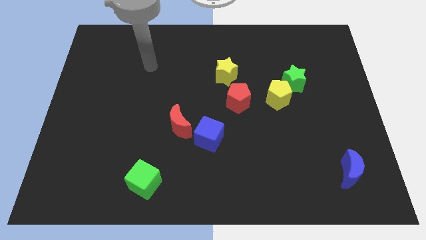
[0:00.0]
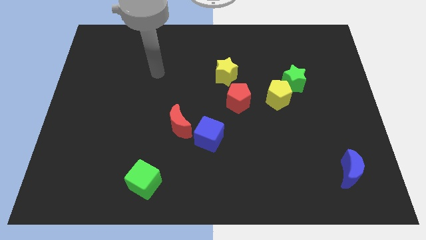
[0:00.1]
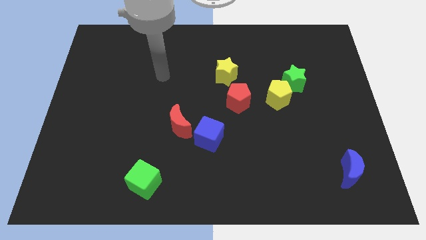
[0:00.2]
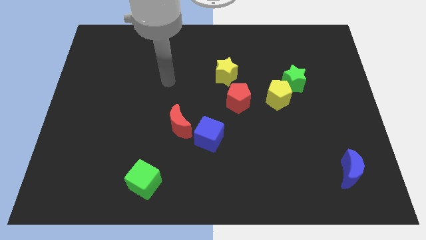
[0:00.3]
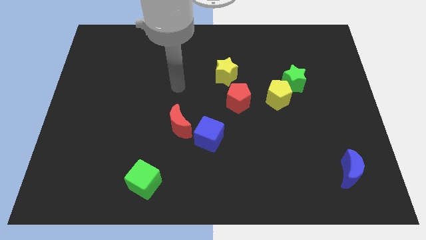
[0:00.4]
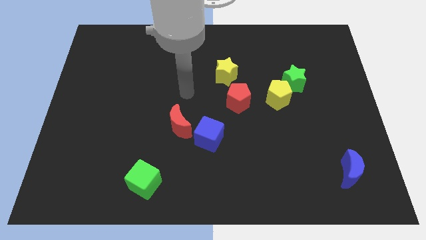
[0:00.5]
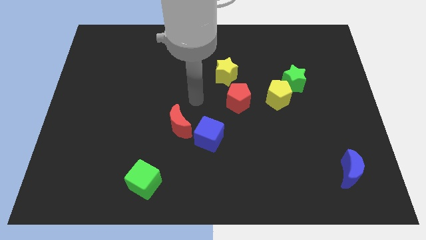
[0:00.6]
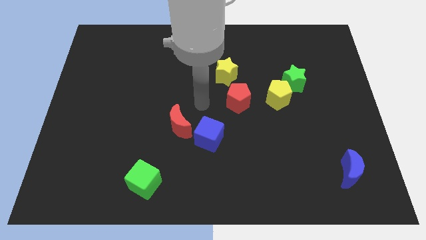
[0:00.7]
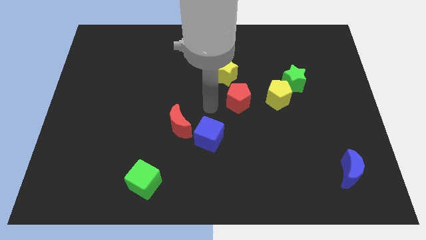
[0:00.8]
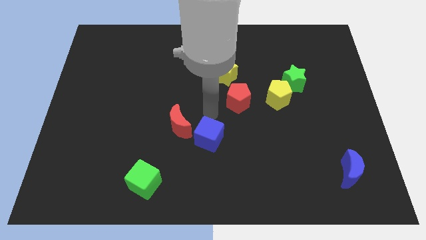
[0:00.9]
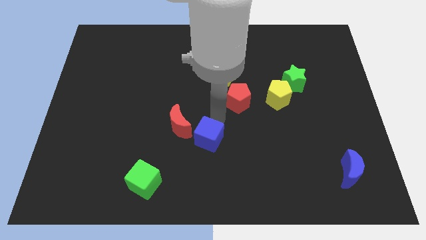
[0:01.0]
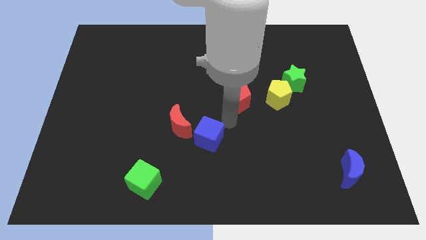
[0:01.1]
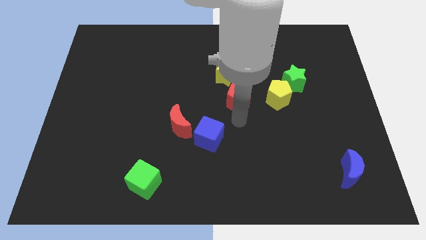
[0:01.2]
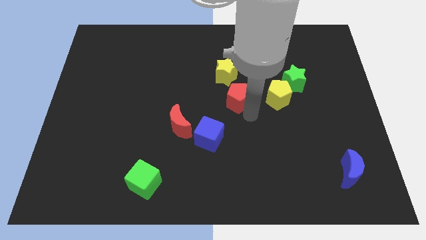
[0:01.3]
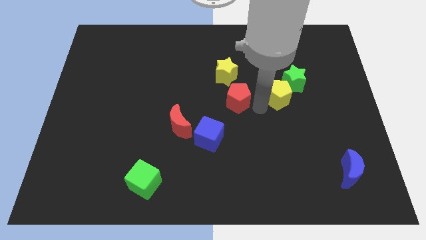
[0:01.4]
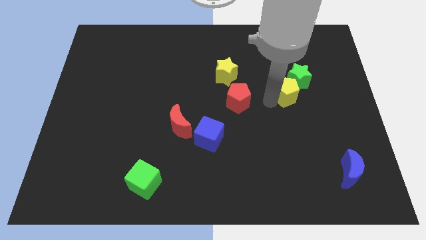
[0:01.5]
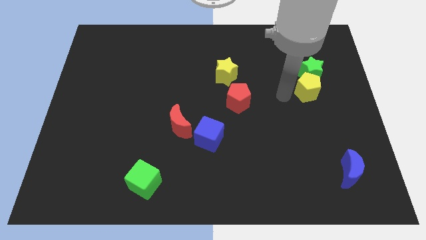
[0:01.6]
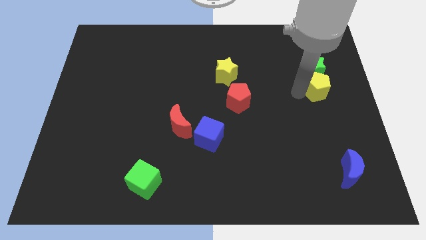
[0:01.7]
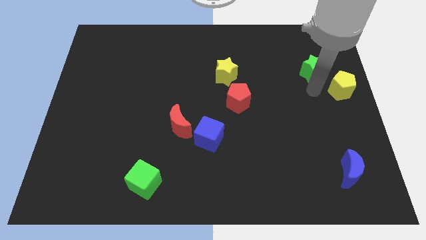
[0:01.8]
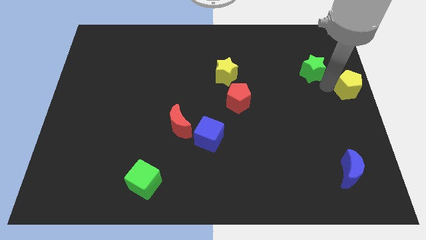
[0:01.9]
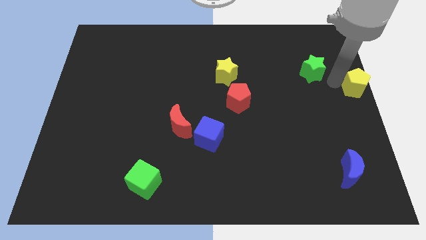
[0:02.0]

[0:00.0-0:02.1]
move the green star away from the yellow pentagon

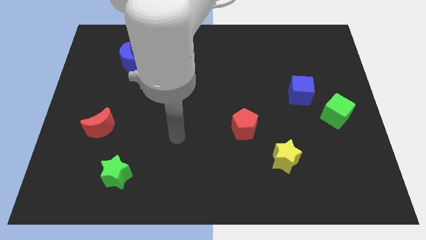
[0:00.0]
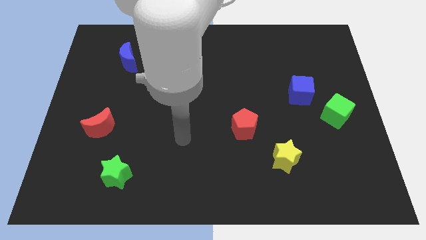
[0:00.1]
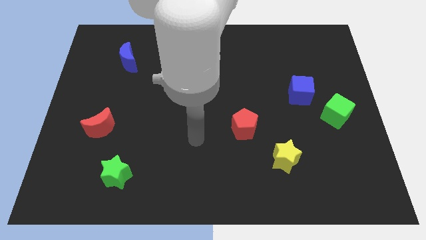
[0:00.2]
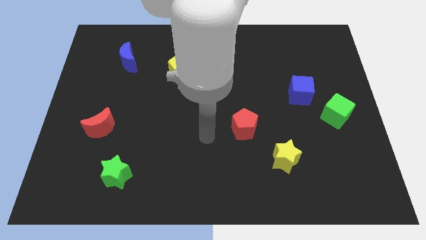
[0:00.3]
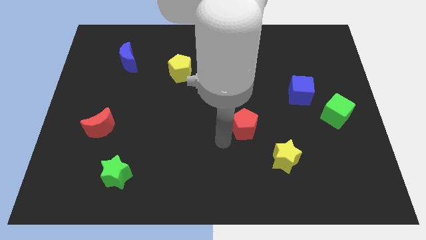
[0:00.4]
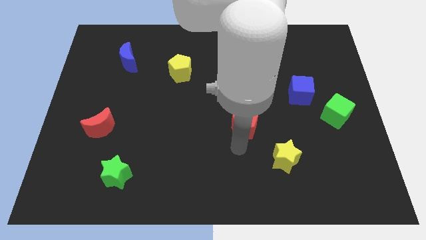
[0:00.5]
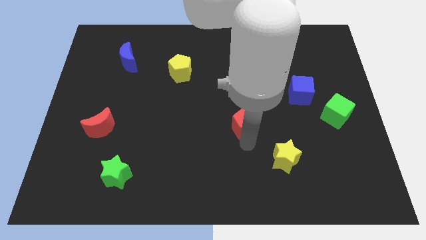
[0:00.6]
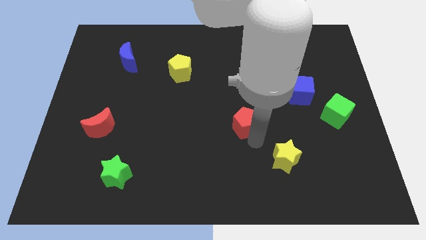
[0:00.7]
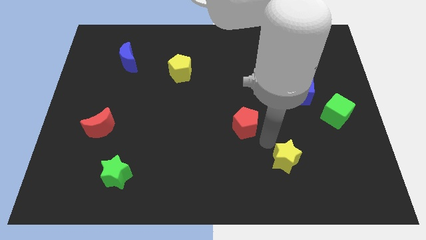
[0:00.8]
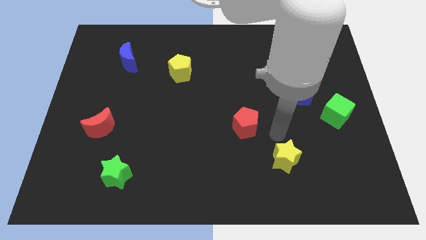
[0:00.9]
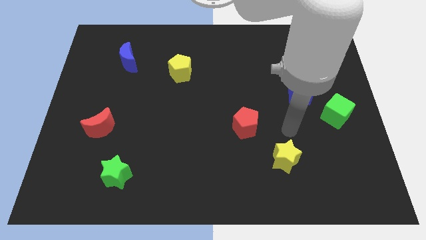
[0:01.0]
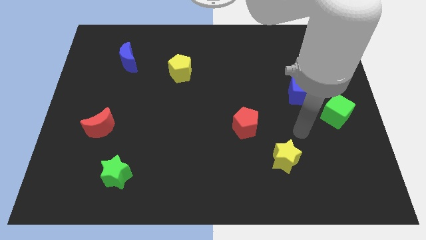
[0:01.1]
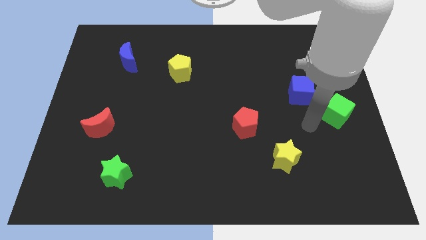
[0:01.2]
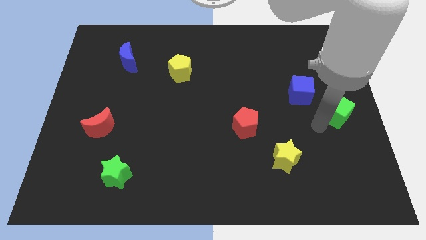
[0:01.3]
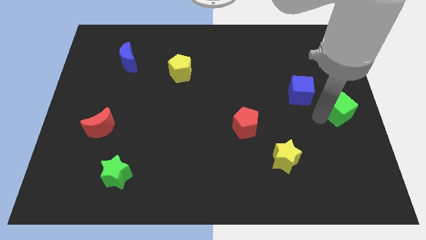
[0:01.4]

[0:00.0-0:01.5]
separate the blue cube from the green cube

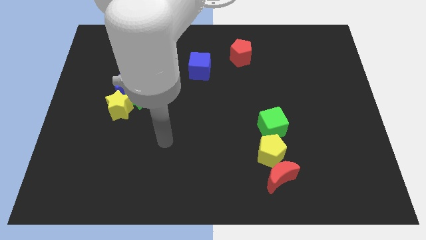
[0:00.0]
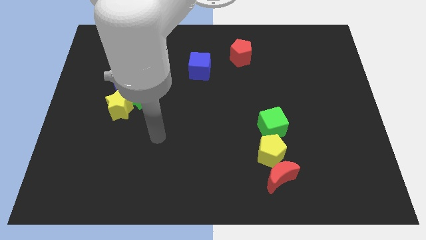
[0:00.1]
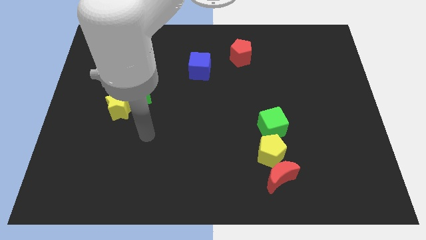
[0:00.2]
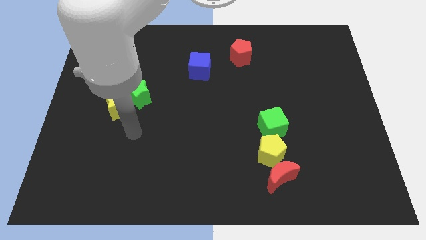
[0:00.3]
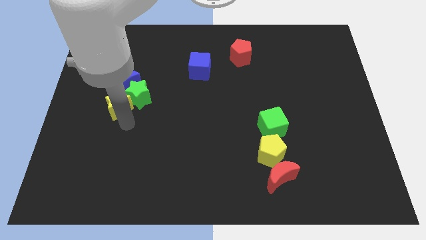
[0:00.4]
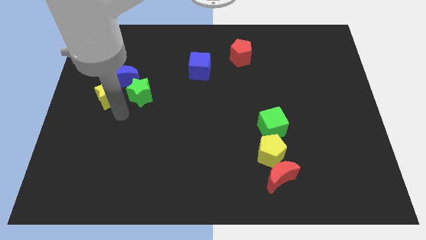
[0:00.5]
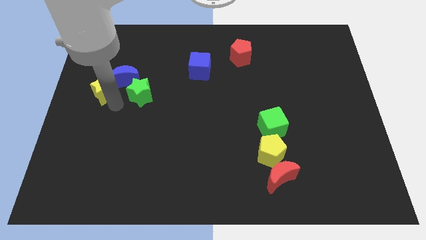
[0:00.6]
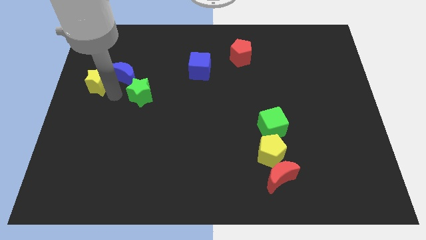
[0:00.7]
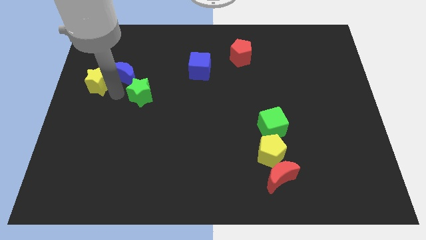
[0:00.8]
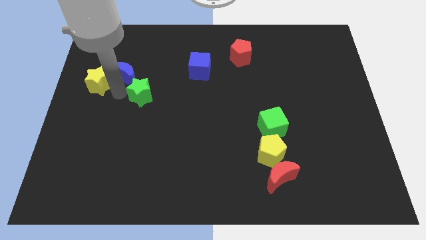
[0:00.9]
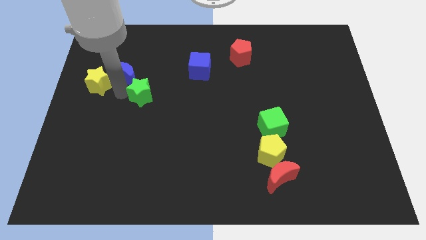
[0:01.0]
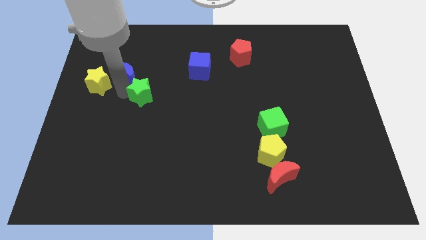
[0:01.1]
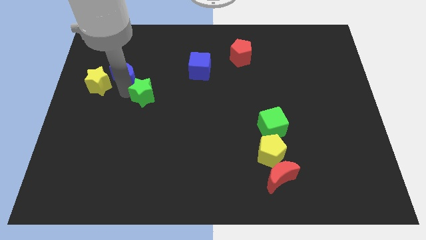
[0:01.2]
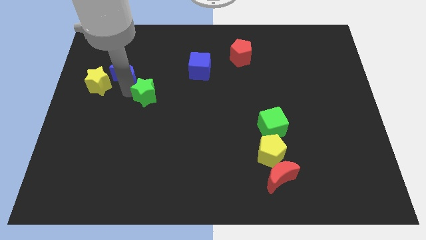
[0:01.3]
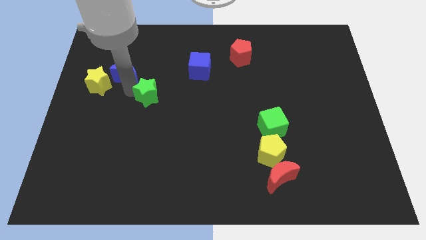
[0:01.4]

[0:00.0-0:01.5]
move the green star away from the blue moon and yellow star

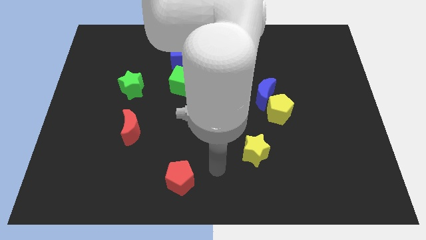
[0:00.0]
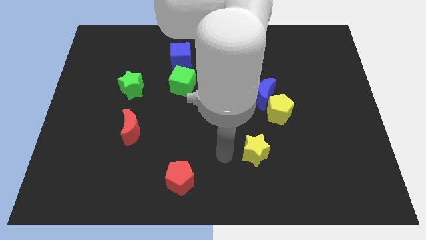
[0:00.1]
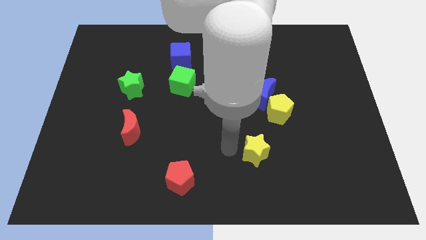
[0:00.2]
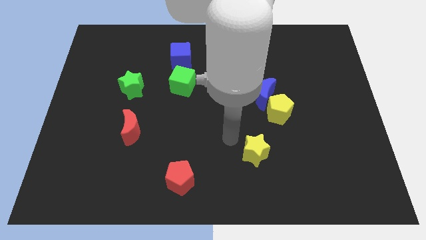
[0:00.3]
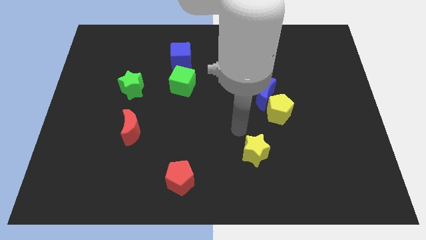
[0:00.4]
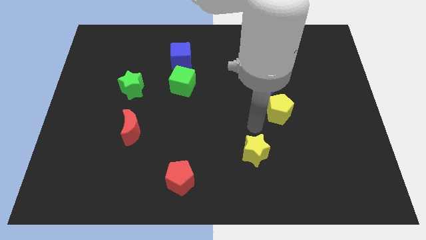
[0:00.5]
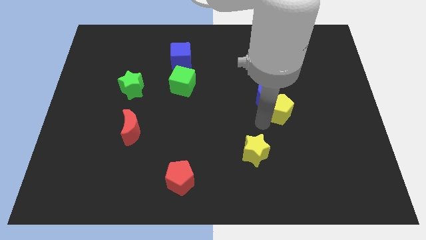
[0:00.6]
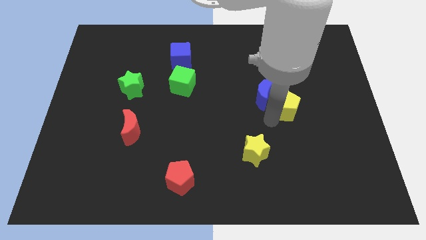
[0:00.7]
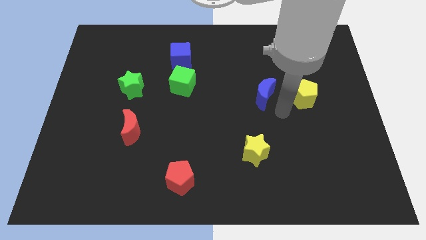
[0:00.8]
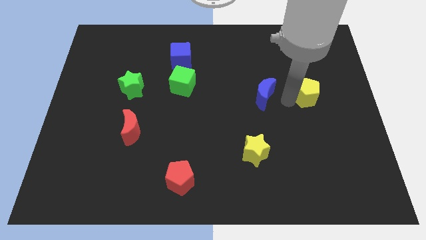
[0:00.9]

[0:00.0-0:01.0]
separate the blue moon from the yellow pentagon

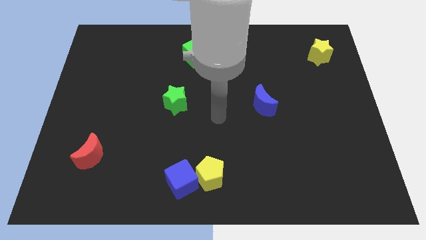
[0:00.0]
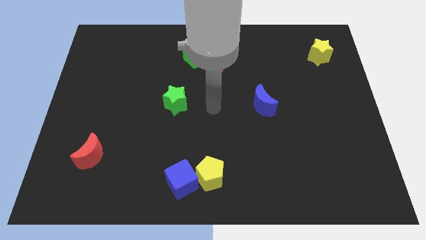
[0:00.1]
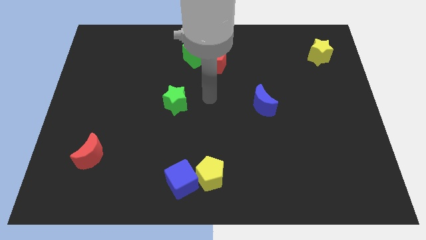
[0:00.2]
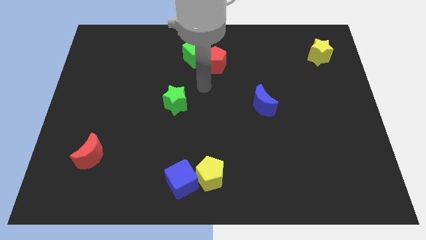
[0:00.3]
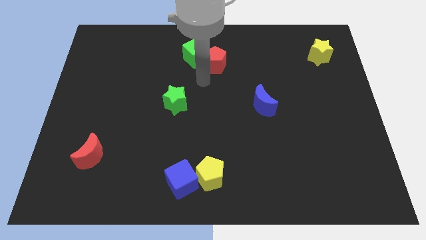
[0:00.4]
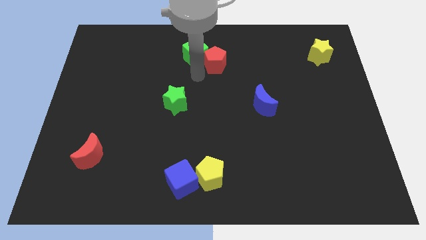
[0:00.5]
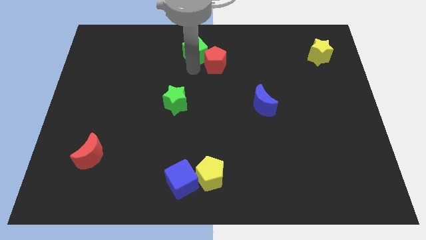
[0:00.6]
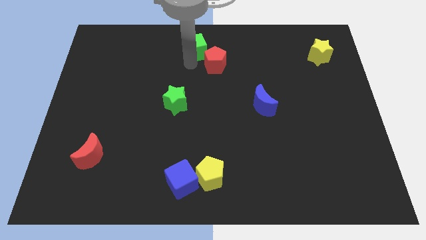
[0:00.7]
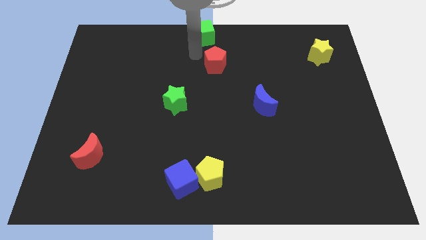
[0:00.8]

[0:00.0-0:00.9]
separate the red pentagon from the green cube

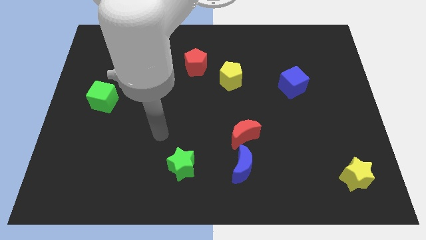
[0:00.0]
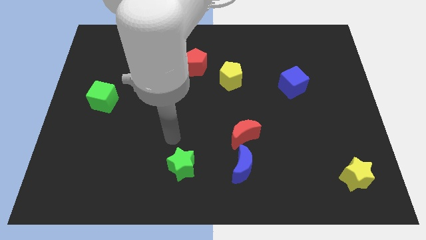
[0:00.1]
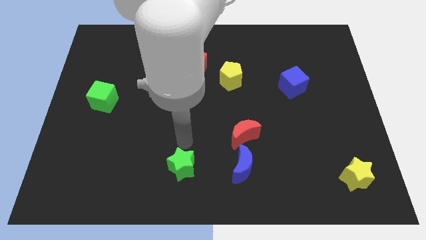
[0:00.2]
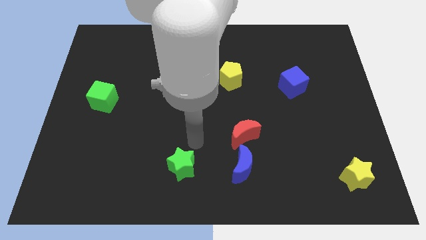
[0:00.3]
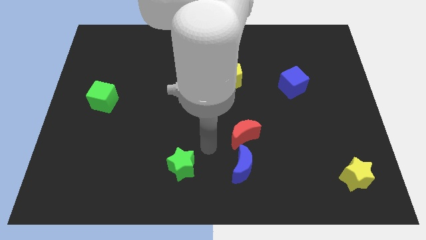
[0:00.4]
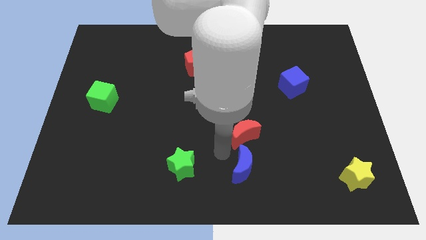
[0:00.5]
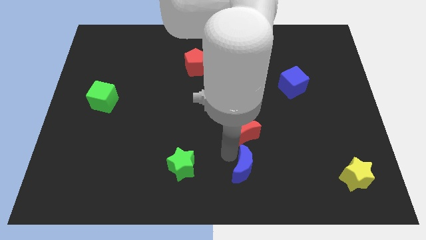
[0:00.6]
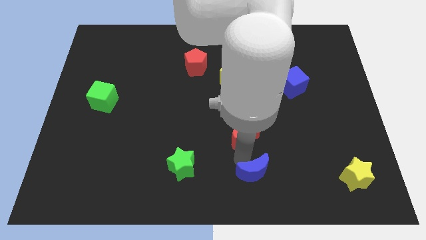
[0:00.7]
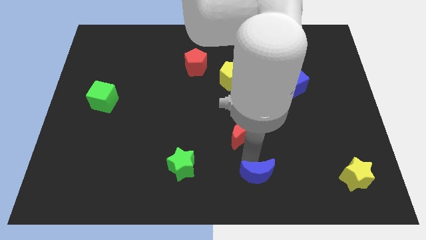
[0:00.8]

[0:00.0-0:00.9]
move the red moon away from the blue moon

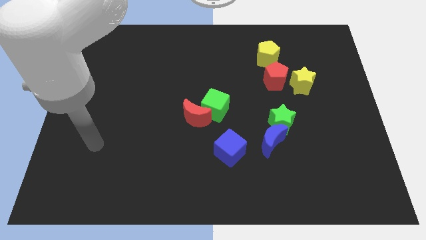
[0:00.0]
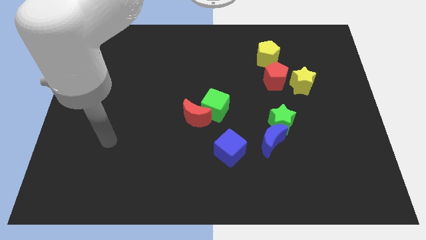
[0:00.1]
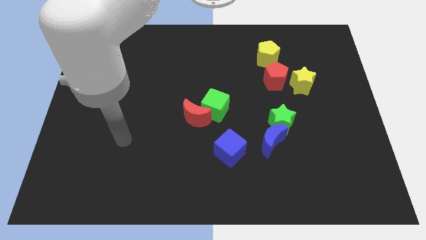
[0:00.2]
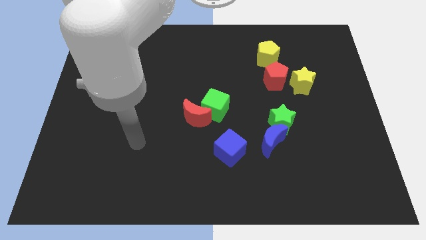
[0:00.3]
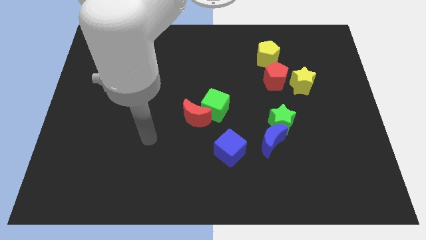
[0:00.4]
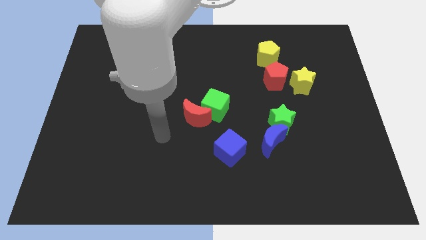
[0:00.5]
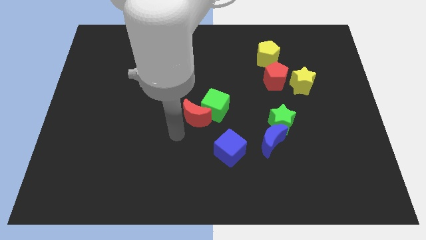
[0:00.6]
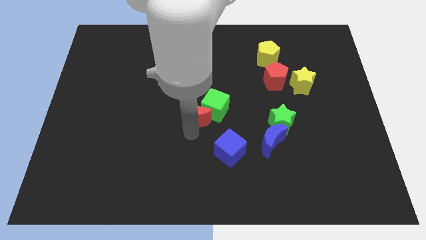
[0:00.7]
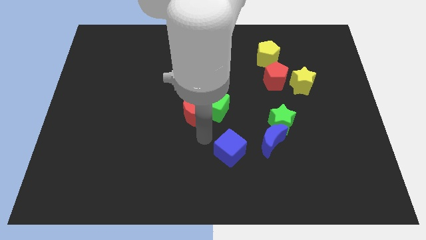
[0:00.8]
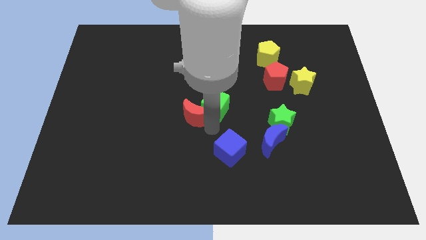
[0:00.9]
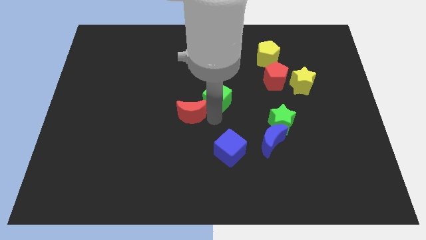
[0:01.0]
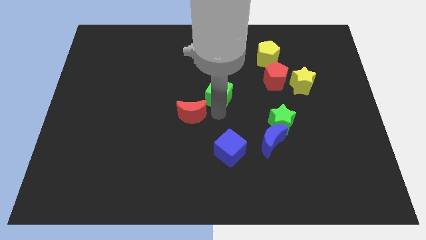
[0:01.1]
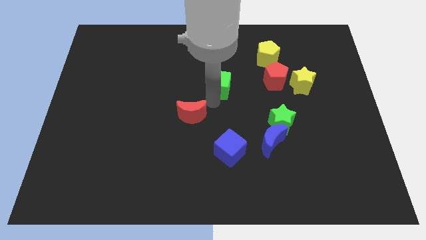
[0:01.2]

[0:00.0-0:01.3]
pull the red moon apart from the green cube

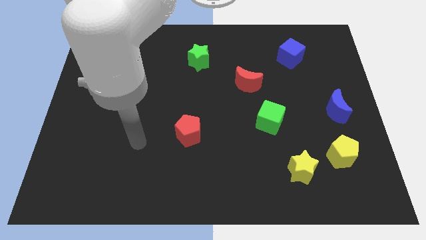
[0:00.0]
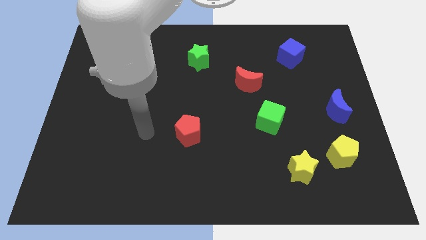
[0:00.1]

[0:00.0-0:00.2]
move the yellow star away from the yellow pentagon

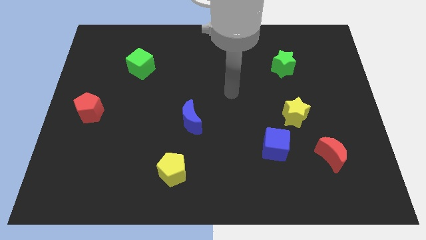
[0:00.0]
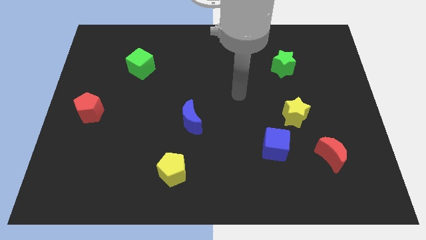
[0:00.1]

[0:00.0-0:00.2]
move the blue cube away from the yellow star
